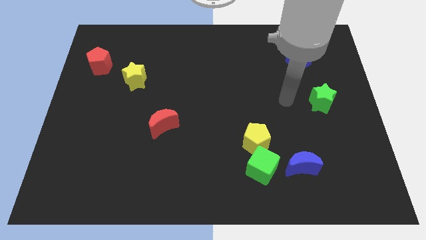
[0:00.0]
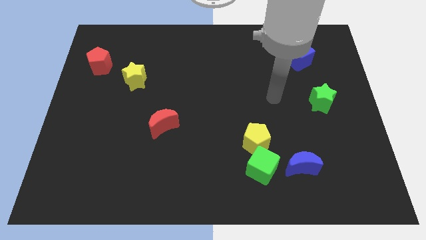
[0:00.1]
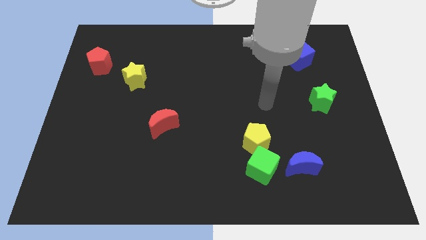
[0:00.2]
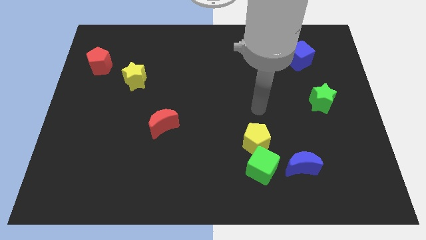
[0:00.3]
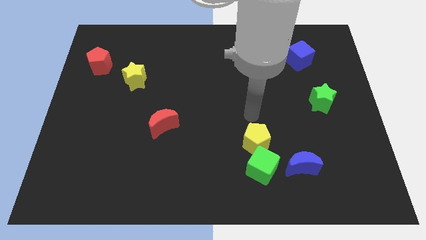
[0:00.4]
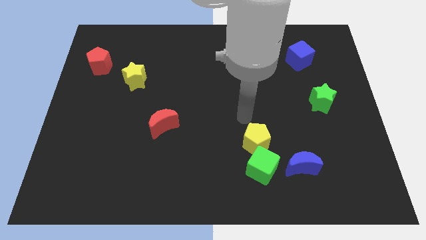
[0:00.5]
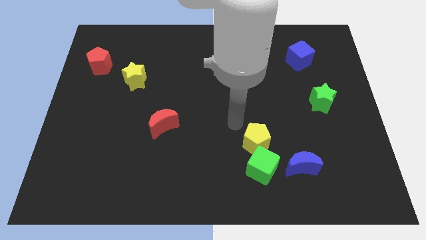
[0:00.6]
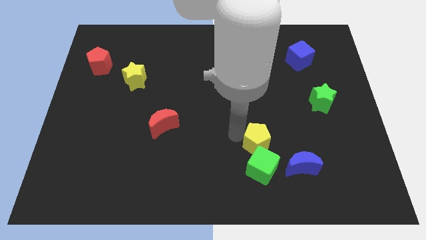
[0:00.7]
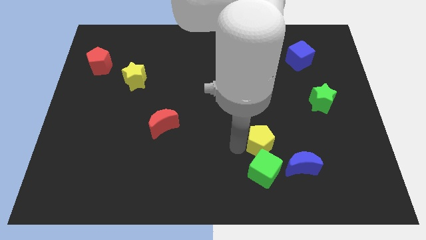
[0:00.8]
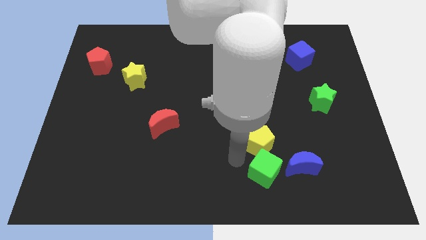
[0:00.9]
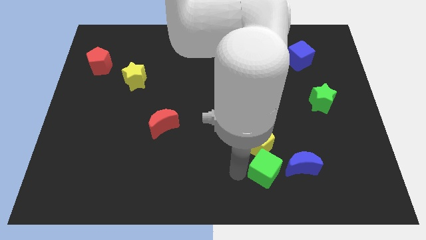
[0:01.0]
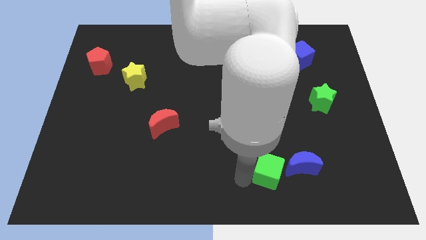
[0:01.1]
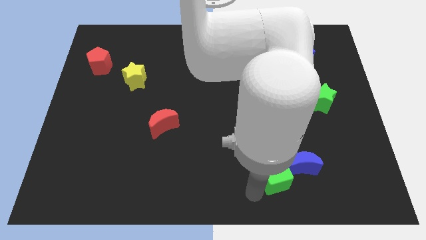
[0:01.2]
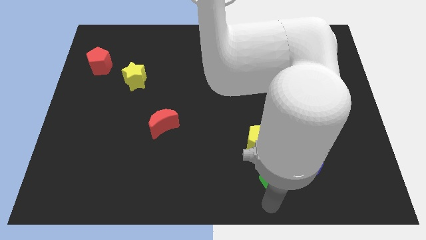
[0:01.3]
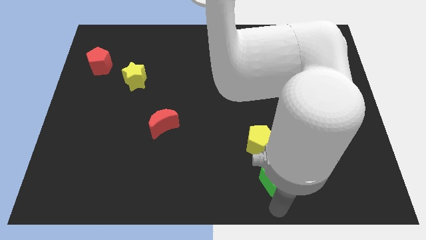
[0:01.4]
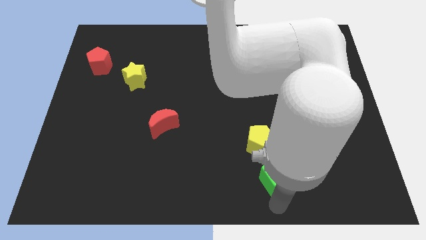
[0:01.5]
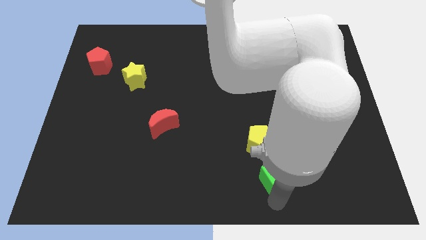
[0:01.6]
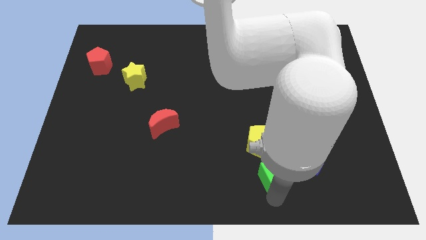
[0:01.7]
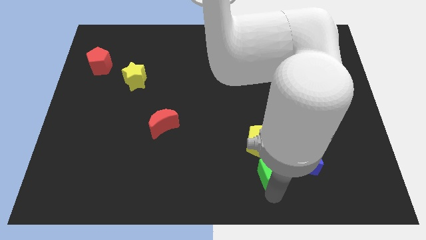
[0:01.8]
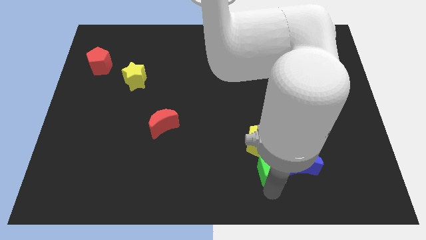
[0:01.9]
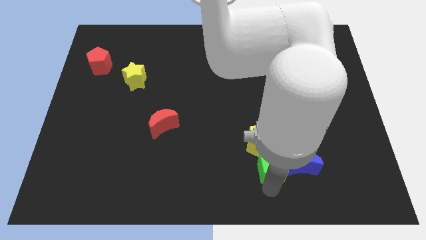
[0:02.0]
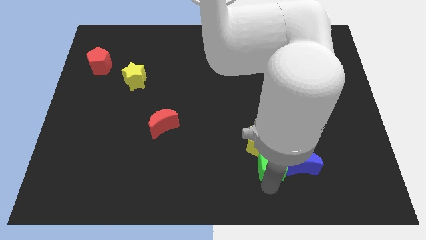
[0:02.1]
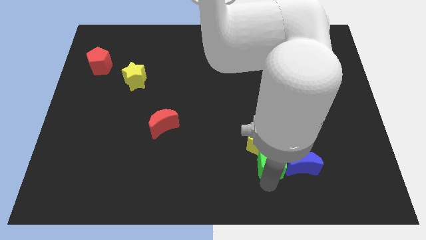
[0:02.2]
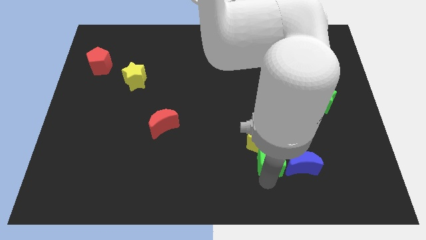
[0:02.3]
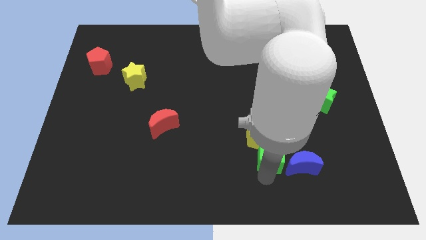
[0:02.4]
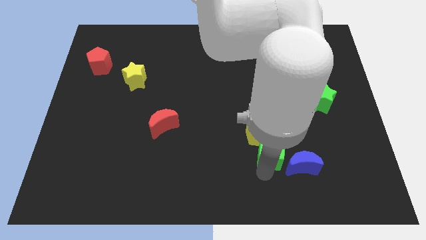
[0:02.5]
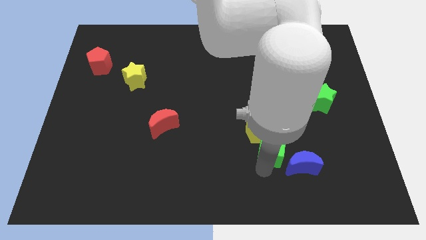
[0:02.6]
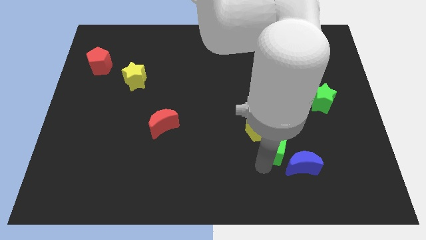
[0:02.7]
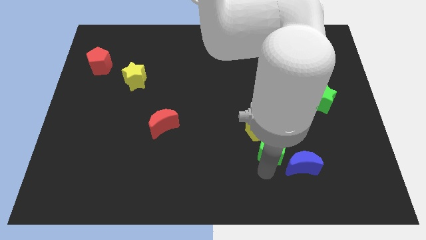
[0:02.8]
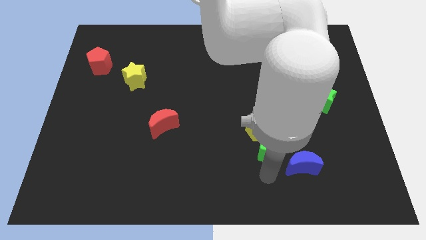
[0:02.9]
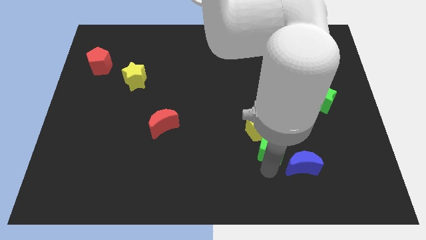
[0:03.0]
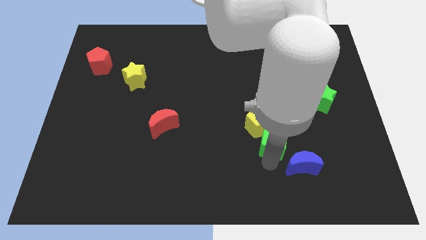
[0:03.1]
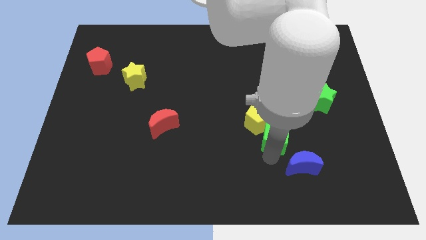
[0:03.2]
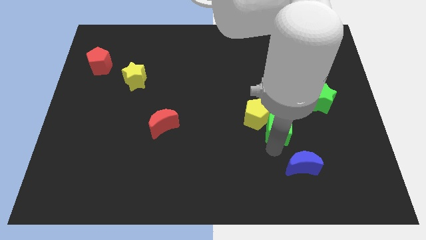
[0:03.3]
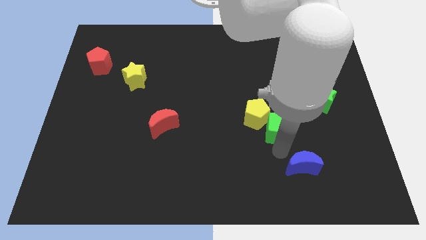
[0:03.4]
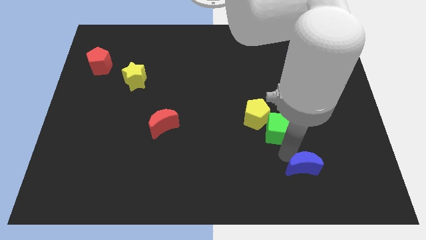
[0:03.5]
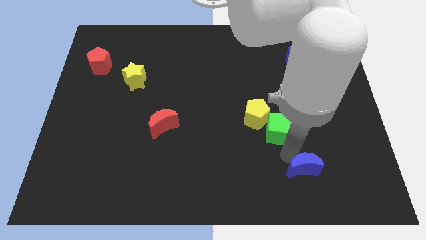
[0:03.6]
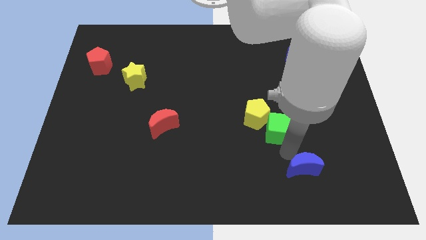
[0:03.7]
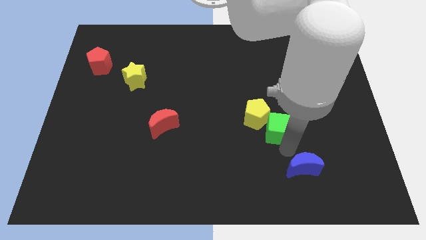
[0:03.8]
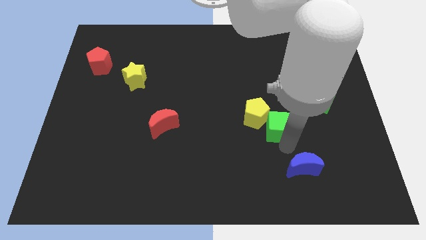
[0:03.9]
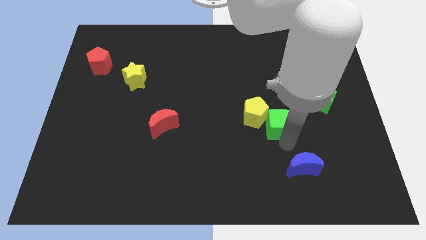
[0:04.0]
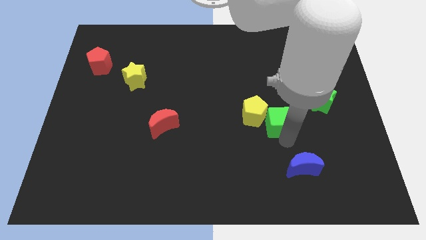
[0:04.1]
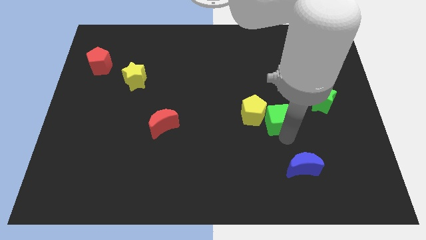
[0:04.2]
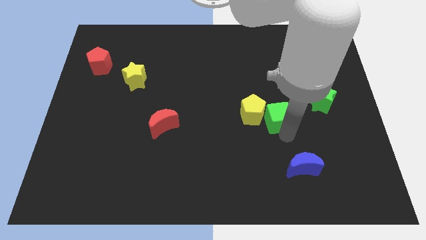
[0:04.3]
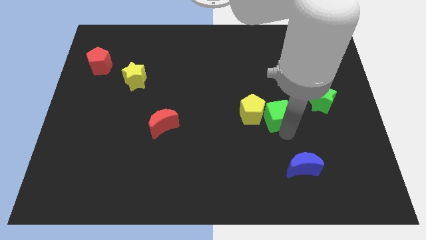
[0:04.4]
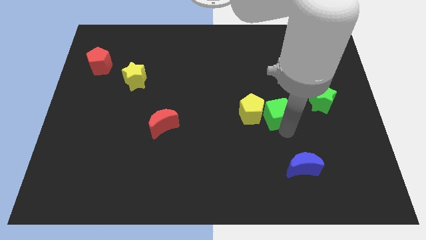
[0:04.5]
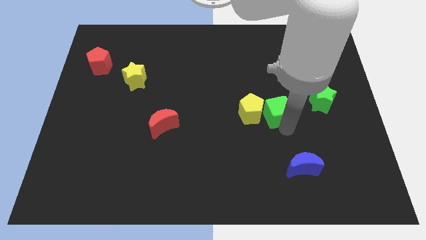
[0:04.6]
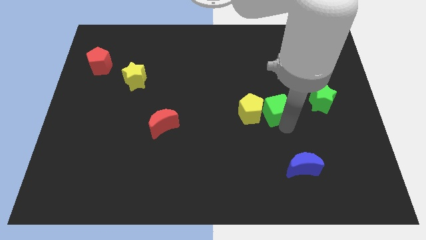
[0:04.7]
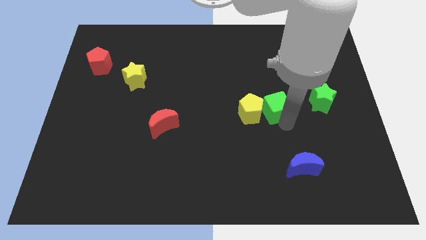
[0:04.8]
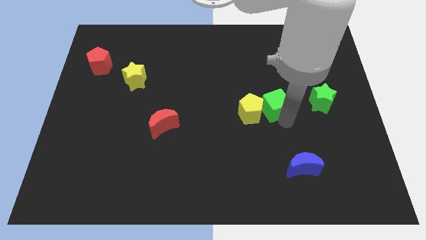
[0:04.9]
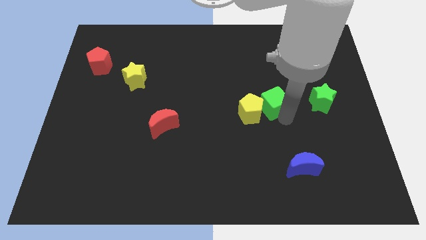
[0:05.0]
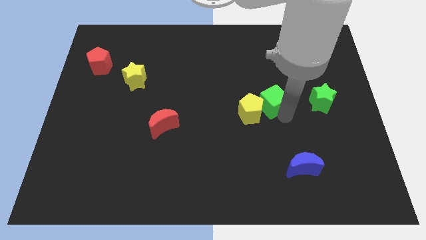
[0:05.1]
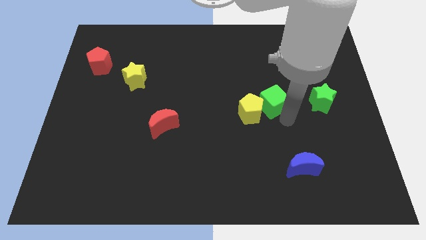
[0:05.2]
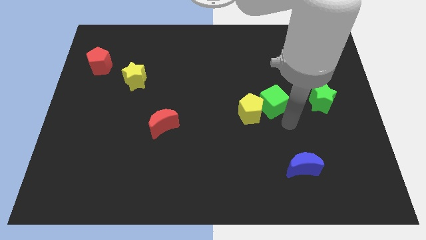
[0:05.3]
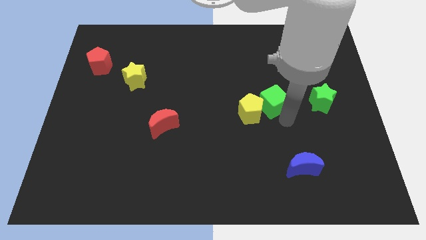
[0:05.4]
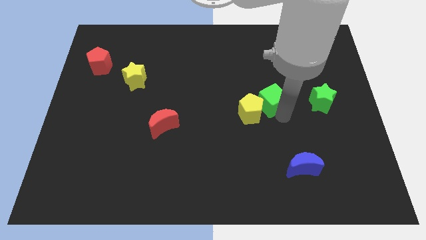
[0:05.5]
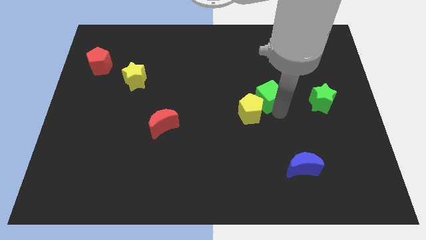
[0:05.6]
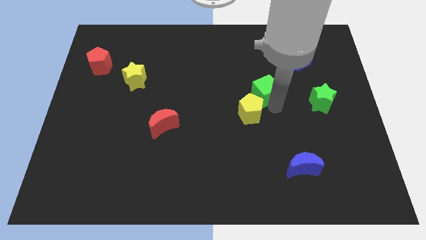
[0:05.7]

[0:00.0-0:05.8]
slide the green cube upwards

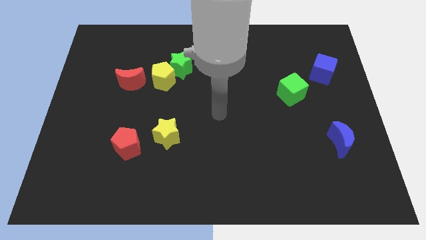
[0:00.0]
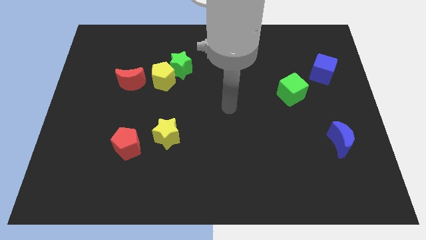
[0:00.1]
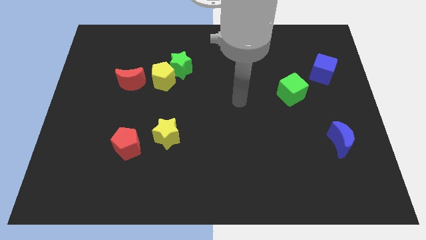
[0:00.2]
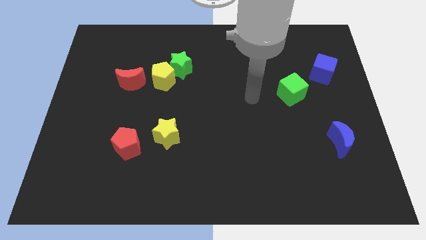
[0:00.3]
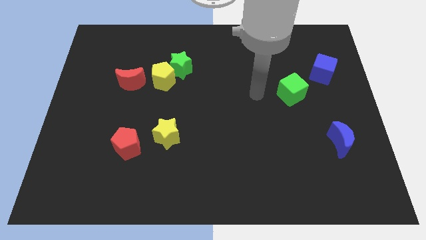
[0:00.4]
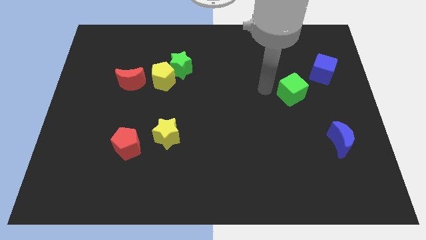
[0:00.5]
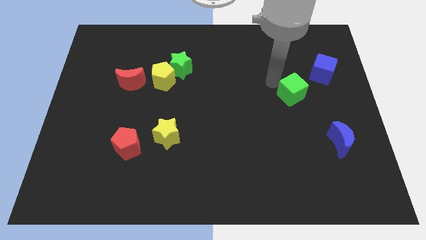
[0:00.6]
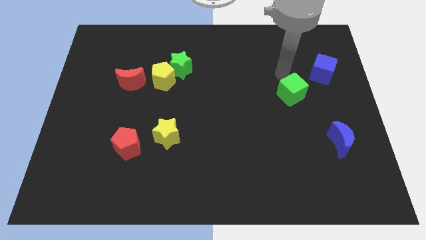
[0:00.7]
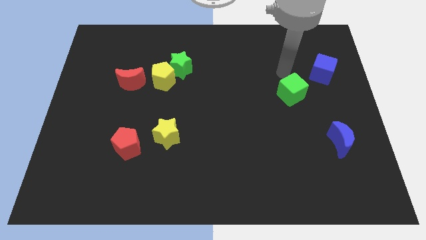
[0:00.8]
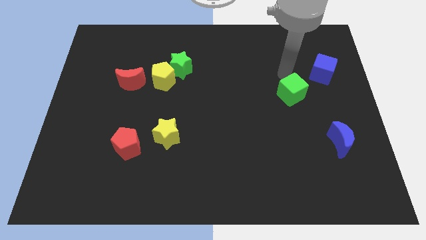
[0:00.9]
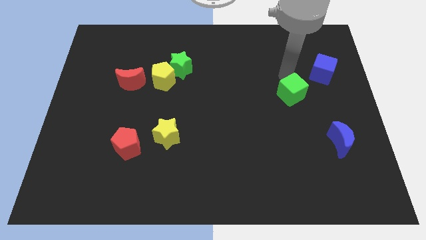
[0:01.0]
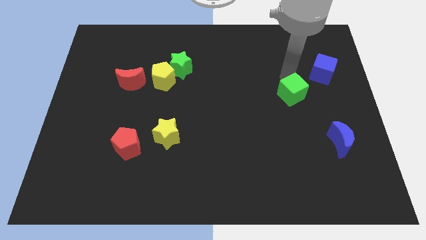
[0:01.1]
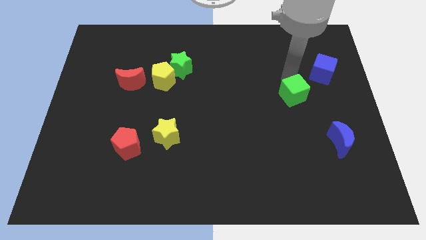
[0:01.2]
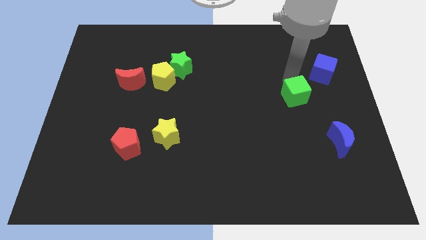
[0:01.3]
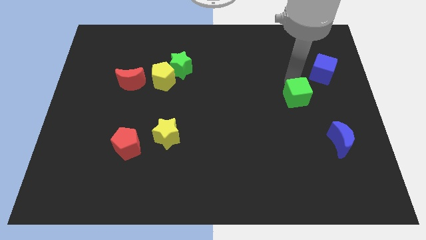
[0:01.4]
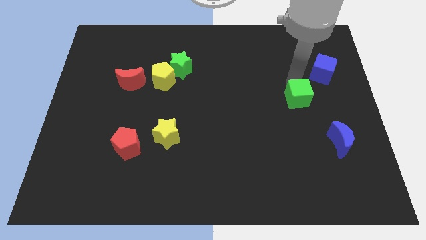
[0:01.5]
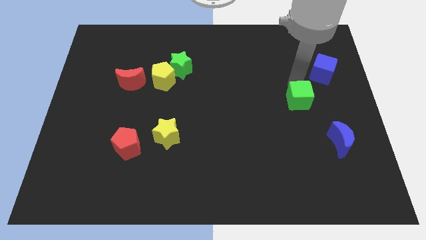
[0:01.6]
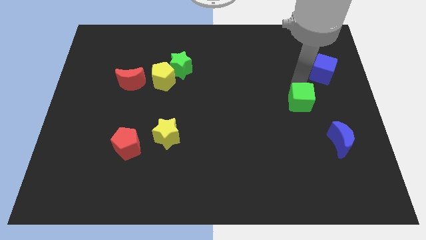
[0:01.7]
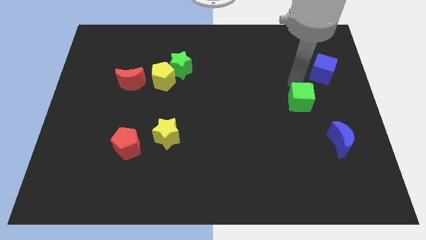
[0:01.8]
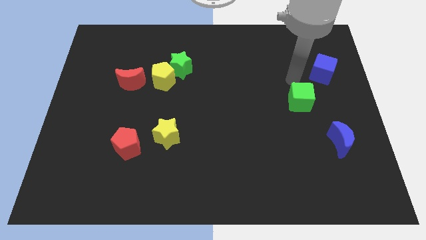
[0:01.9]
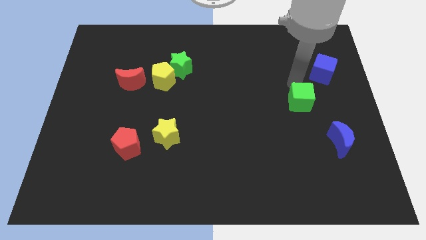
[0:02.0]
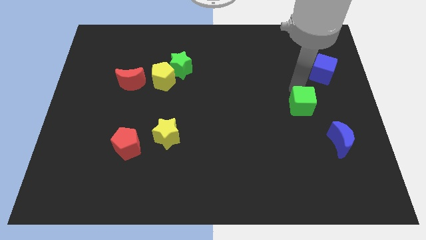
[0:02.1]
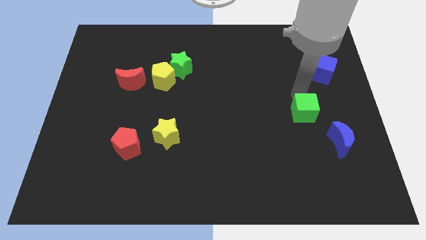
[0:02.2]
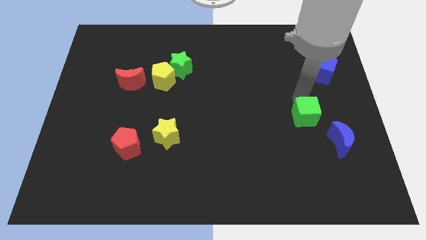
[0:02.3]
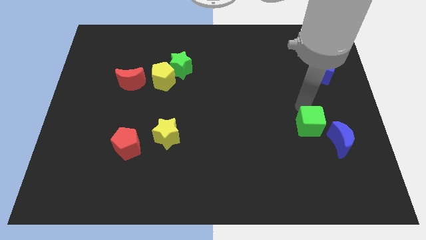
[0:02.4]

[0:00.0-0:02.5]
slightly move the green cube down

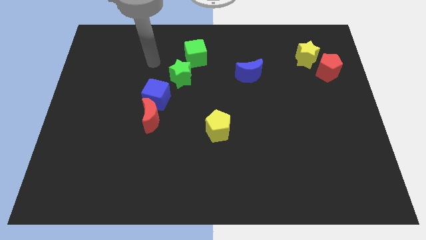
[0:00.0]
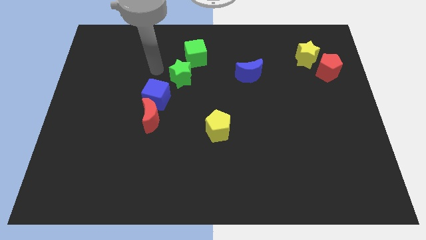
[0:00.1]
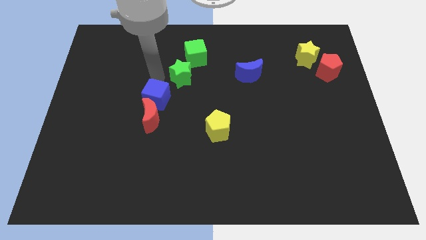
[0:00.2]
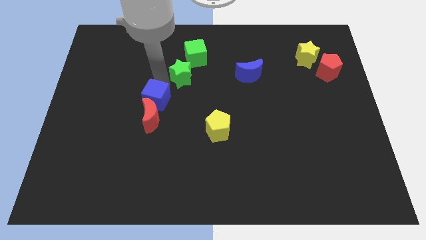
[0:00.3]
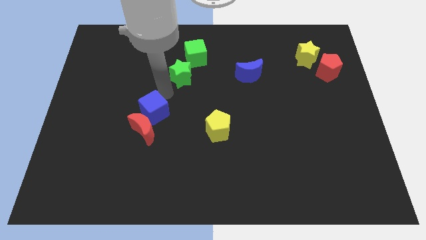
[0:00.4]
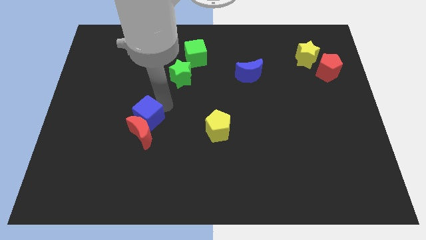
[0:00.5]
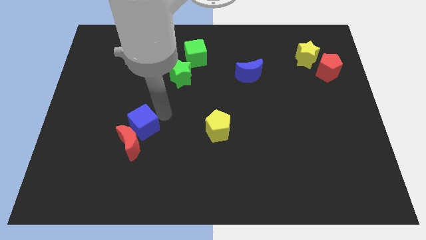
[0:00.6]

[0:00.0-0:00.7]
slightly move the red moon downwards and left diagonally
